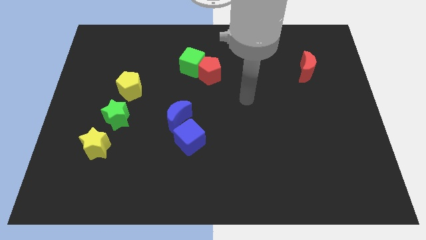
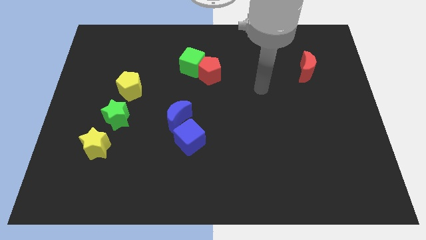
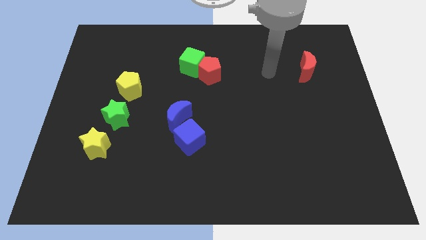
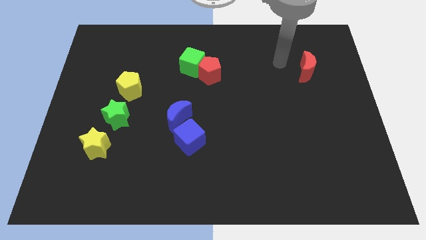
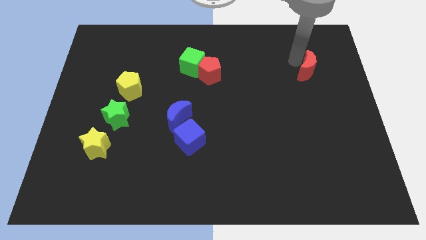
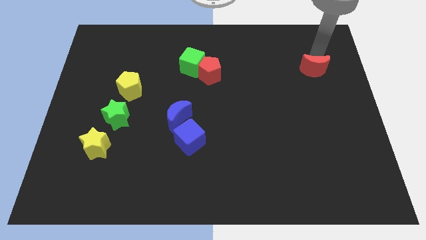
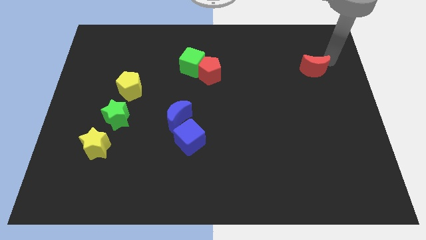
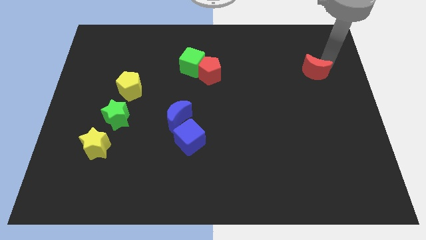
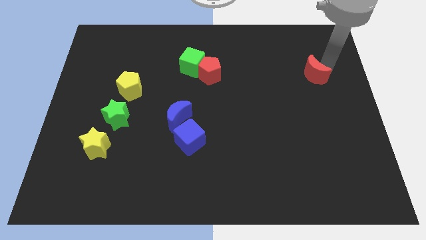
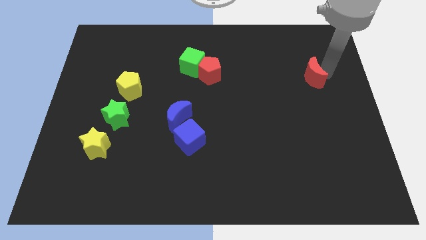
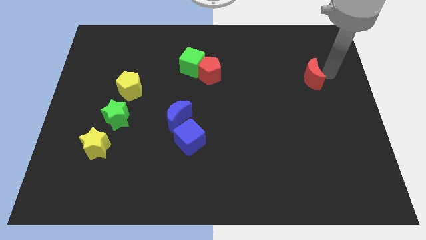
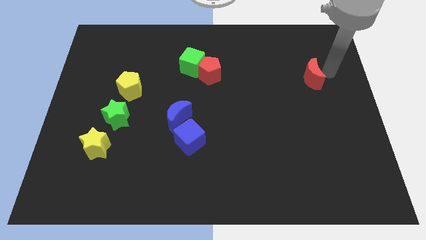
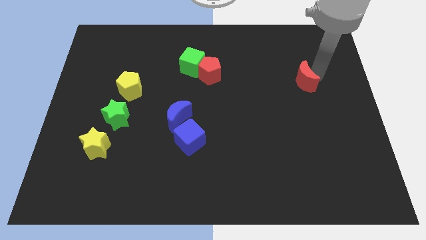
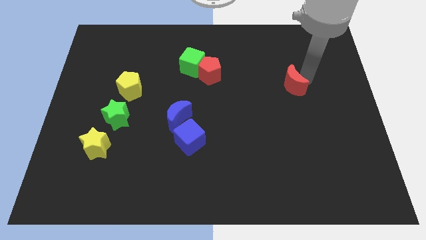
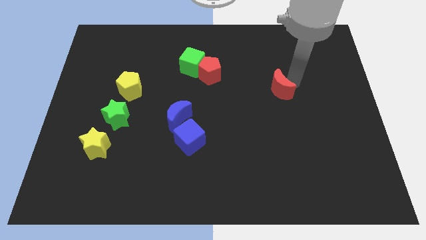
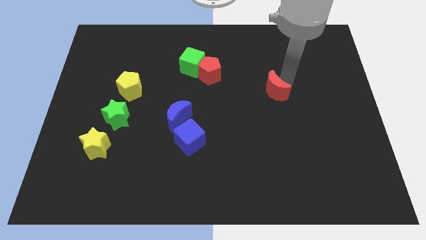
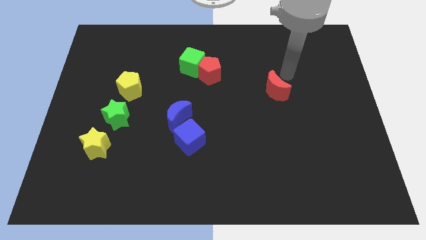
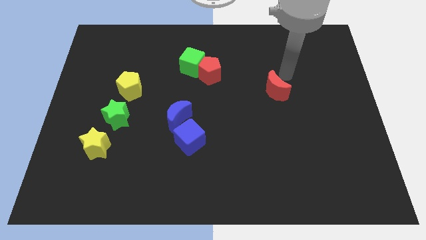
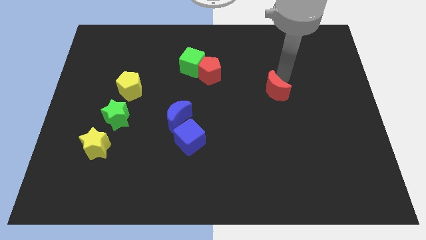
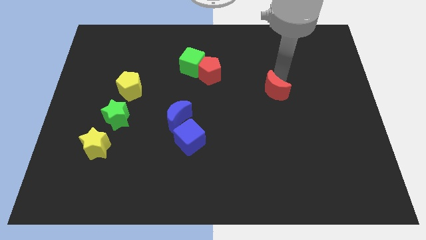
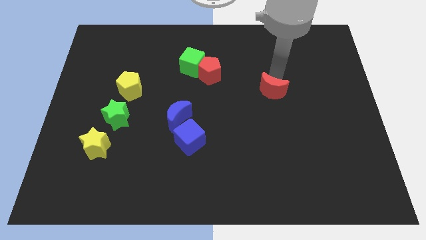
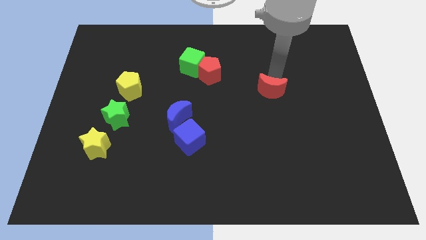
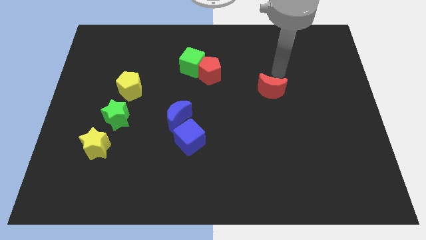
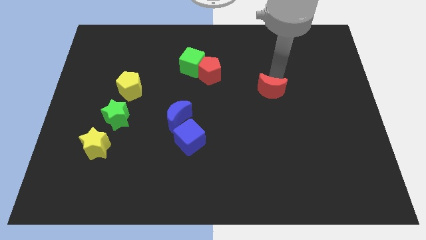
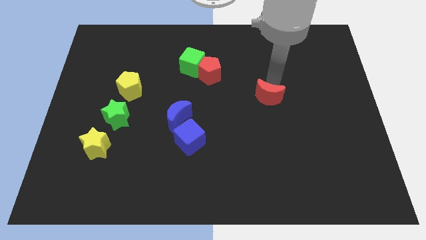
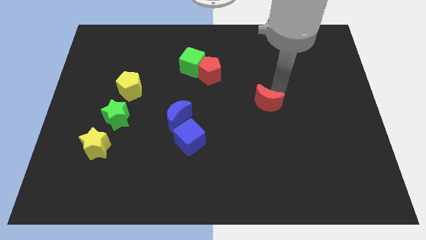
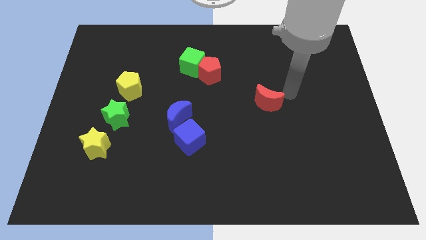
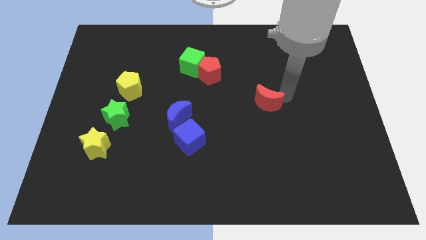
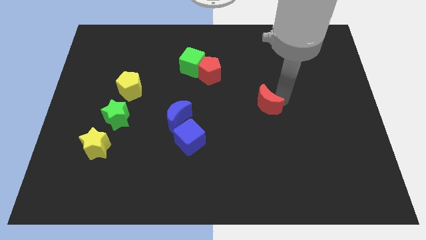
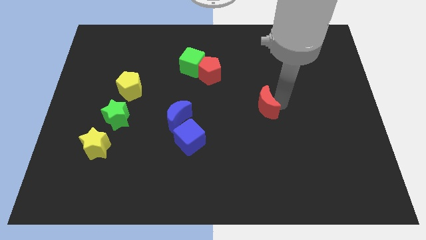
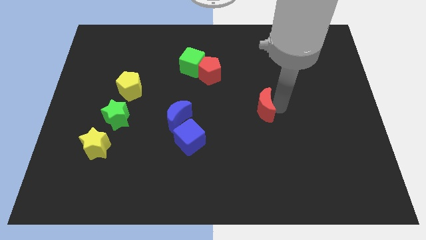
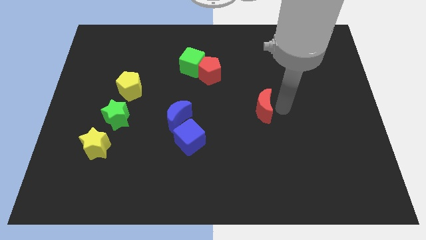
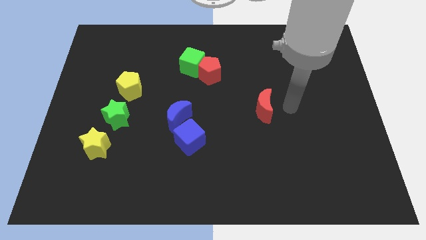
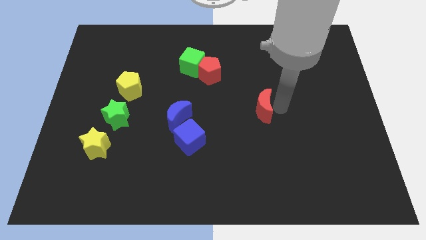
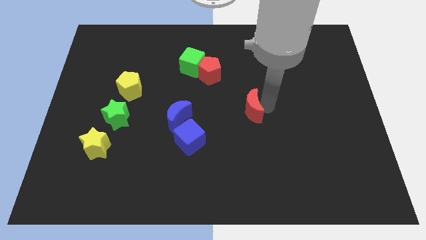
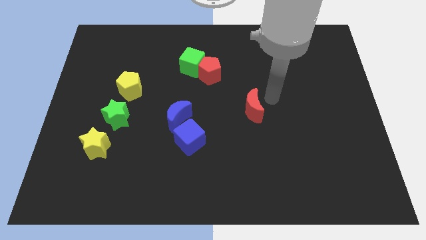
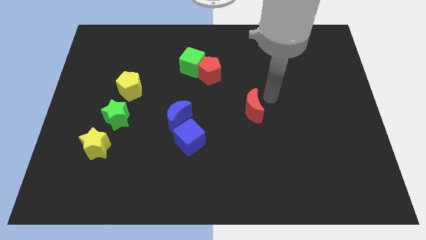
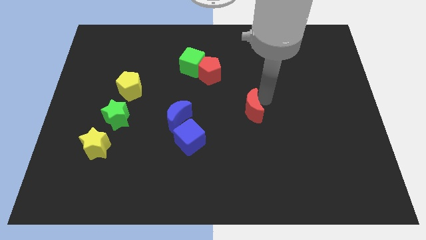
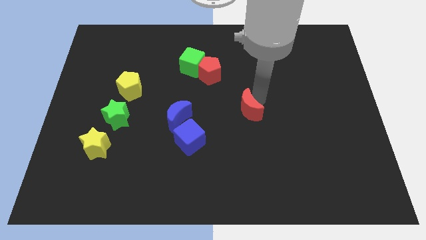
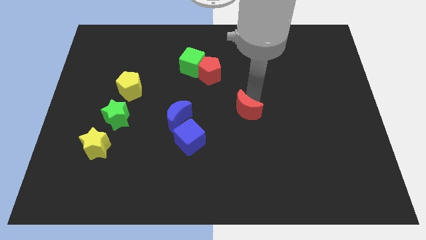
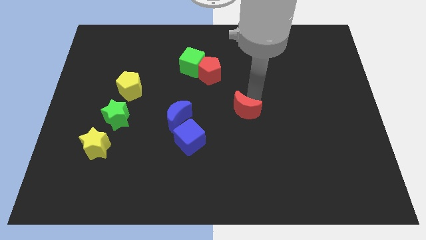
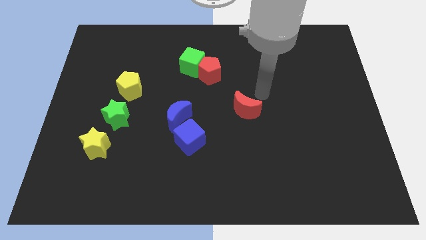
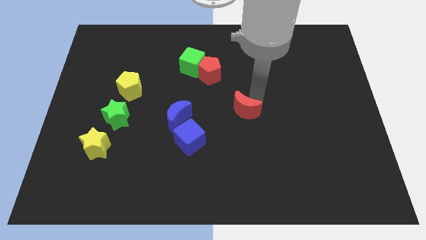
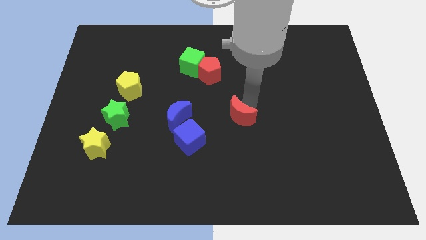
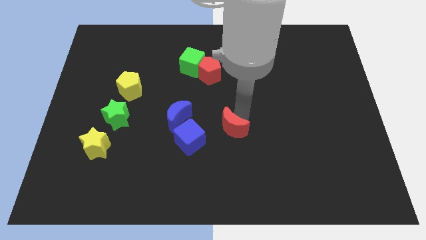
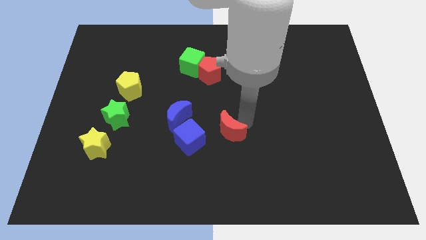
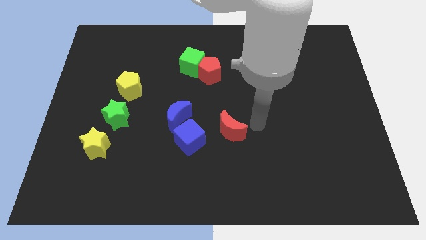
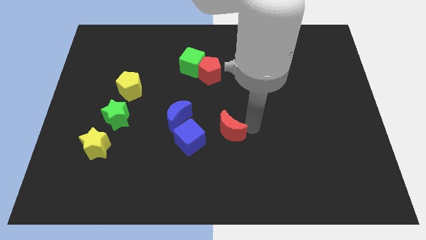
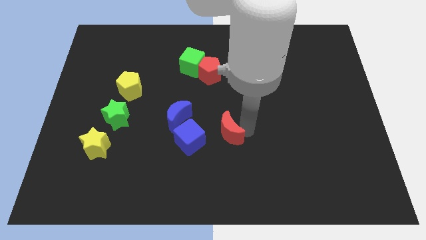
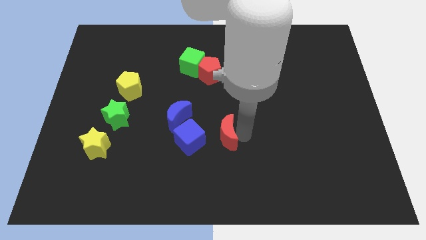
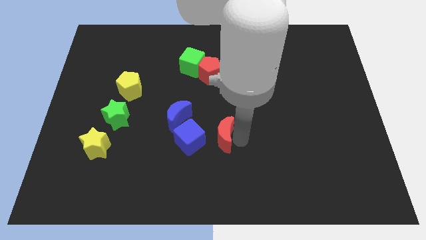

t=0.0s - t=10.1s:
slide the red moon to the bottom right side of the blue moon

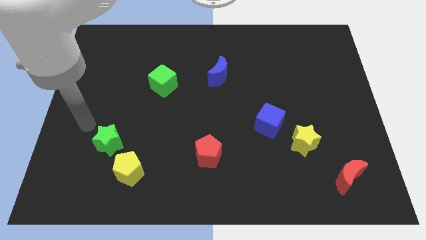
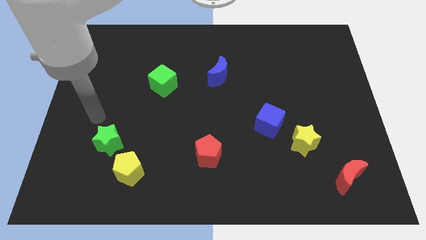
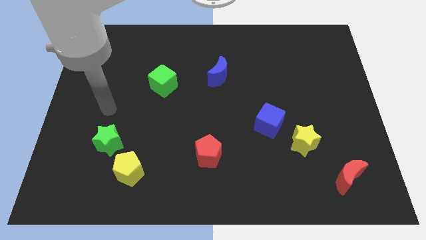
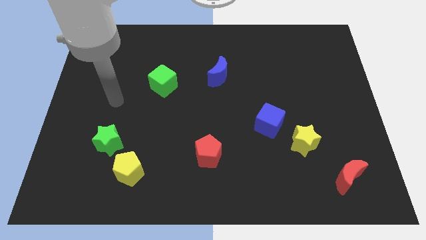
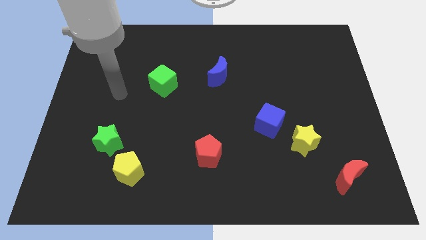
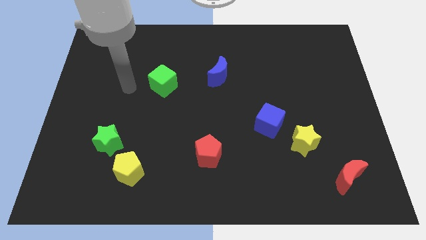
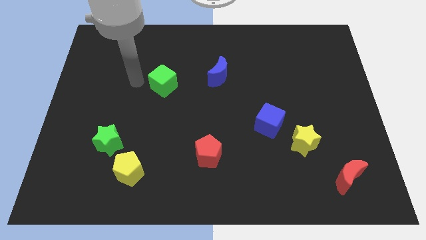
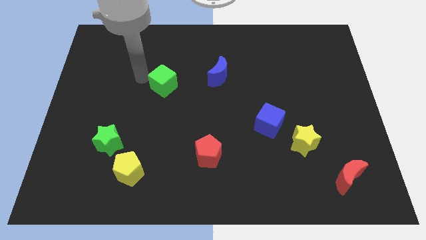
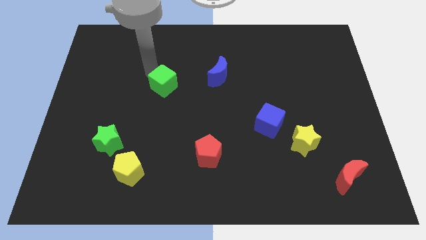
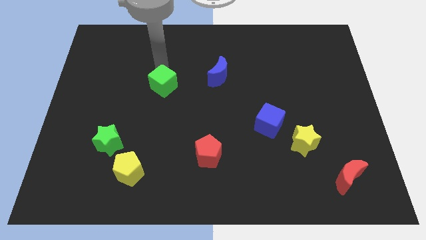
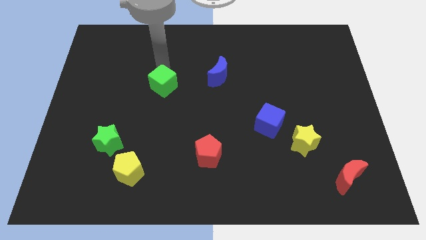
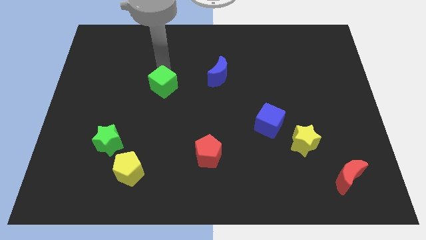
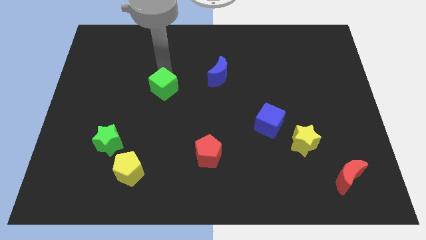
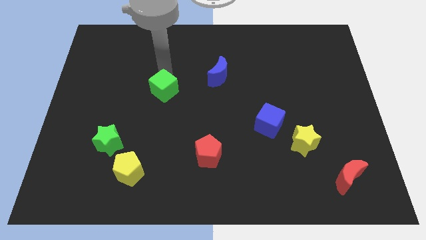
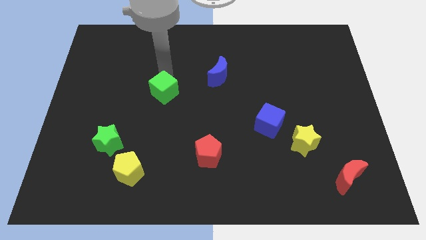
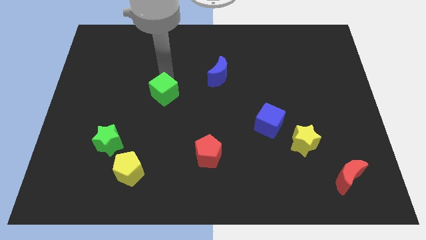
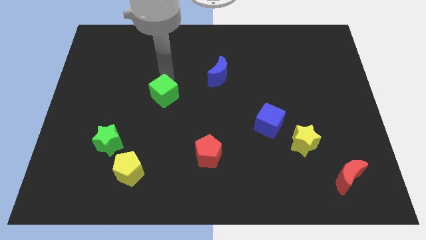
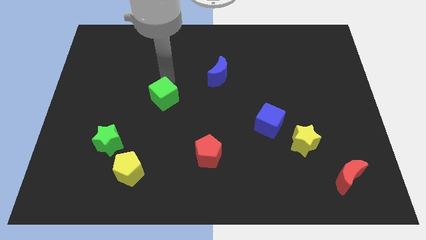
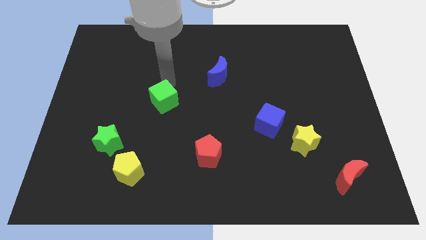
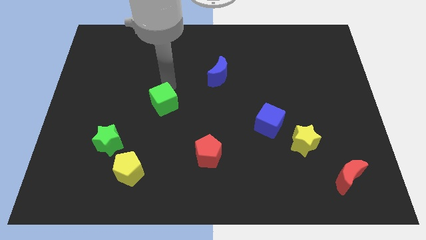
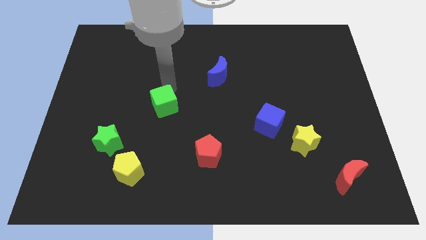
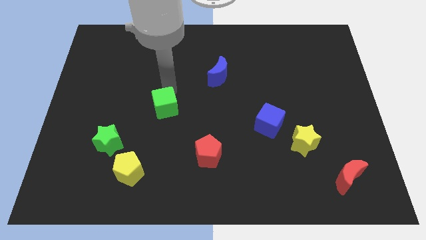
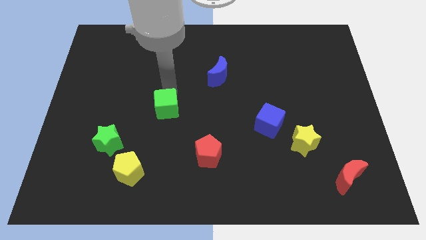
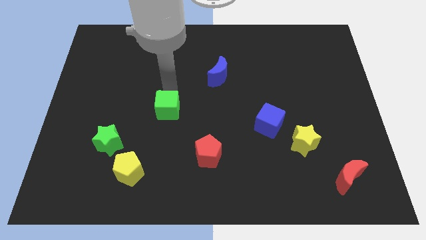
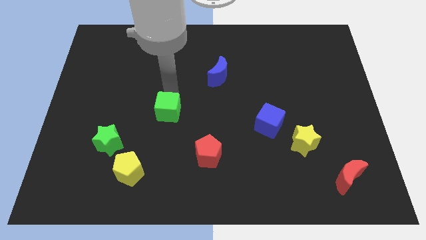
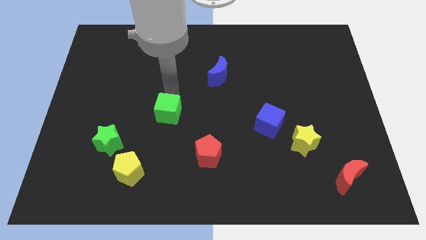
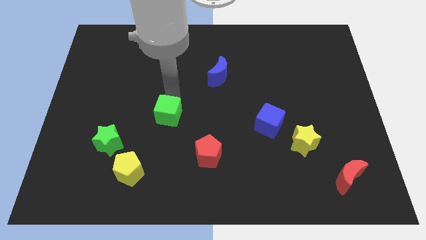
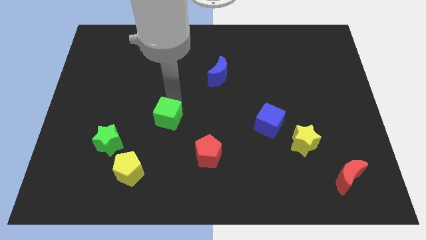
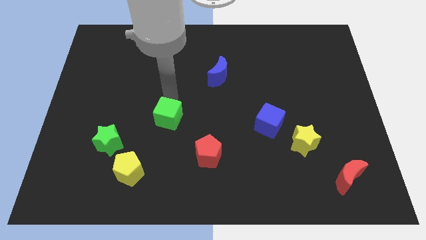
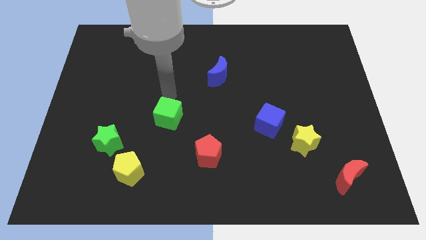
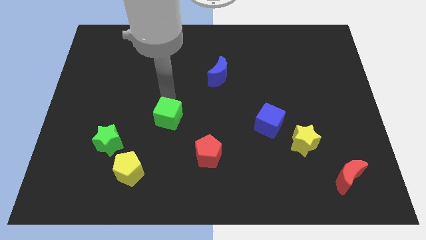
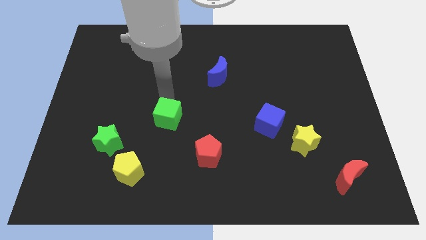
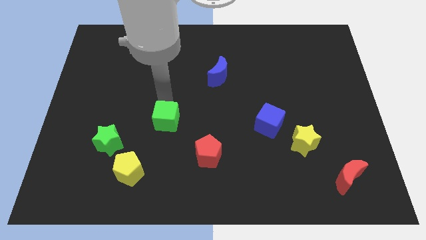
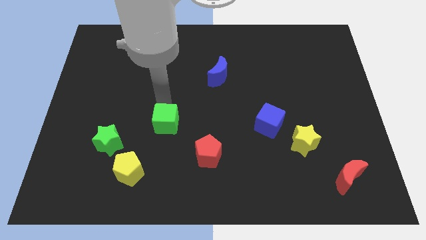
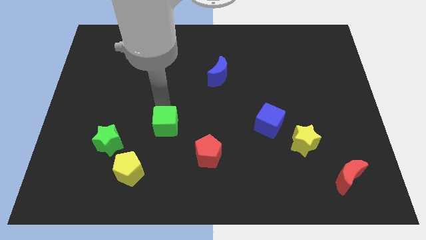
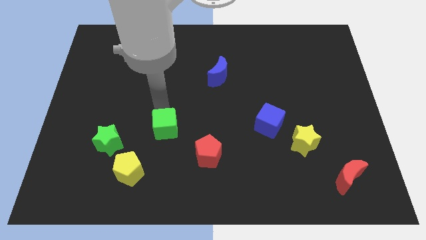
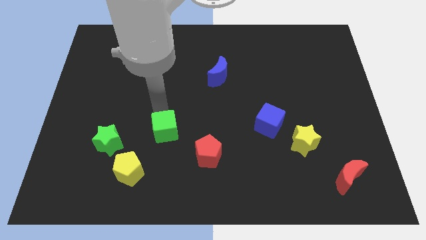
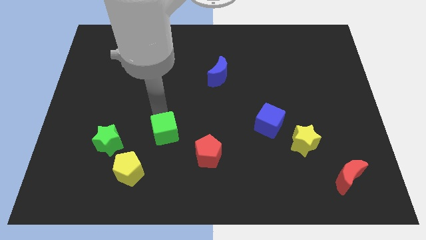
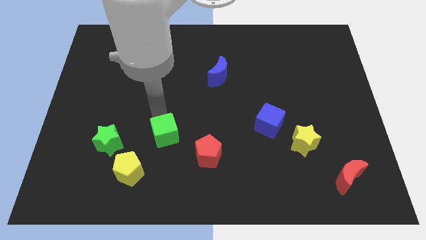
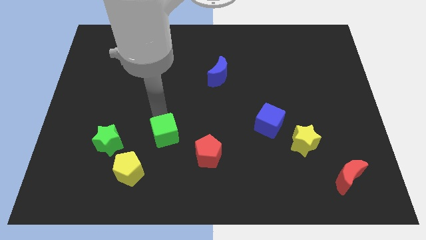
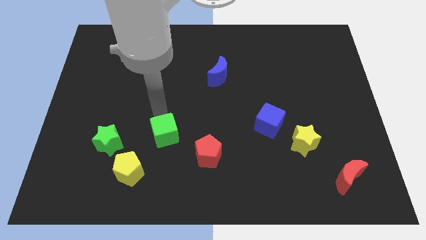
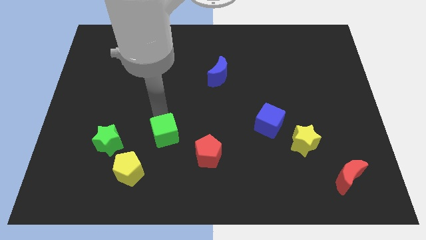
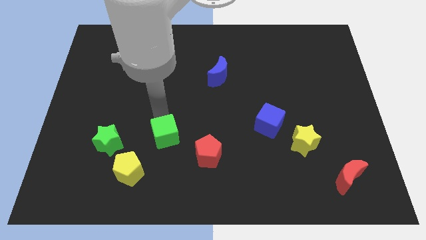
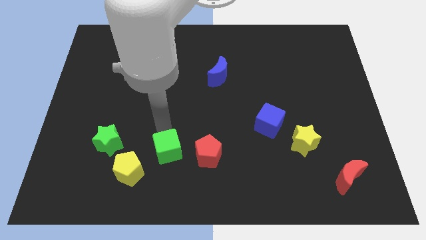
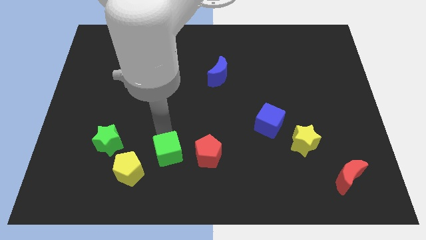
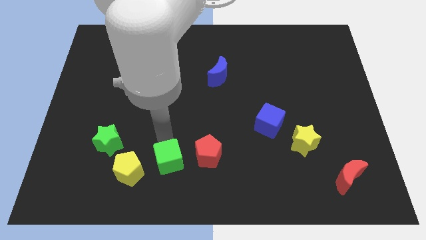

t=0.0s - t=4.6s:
move the green cube to the bottom left of the red pentagon
